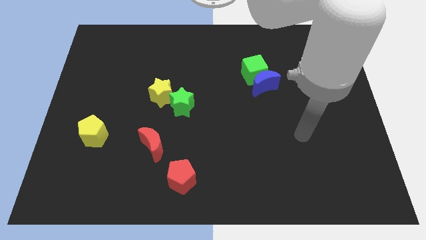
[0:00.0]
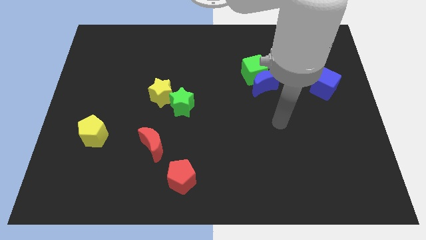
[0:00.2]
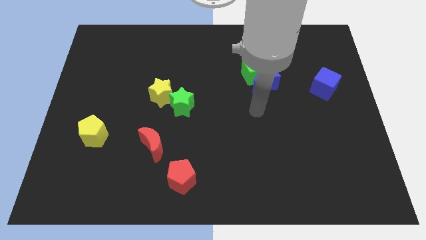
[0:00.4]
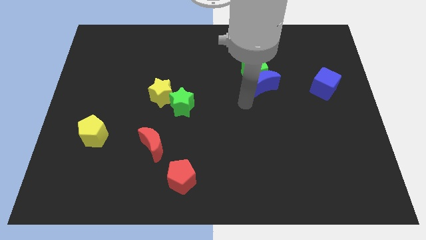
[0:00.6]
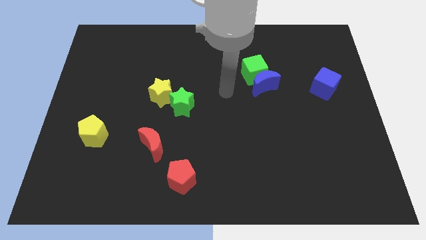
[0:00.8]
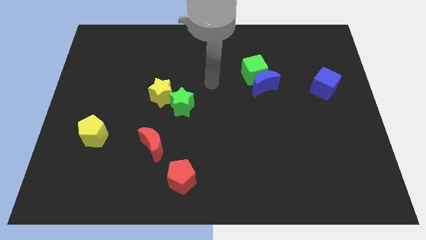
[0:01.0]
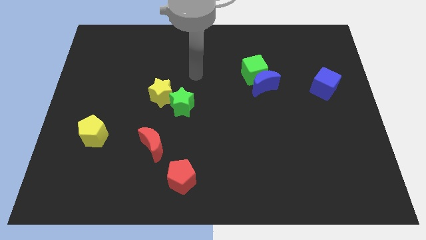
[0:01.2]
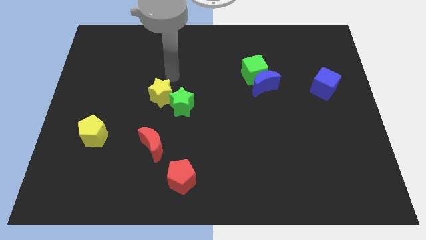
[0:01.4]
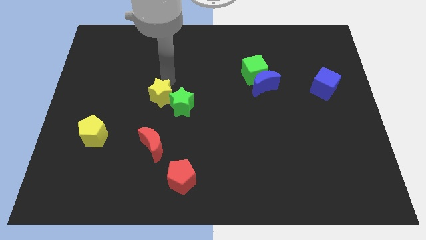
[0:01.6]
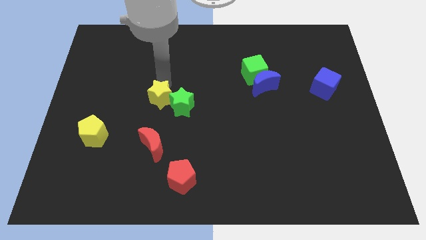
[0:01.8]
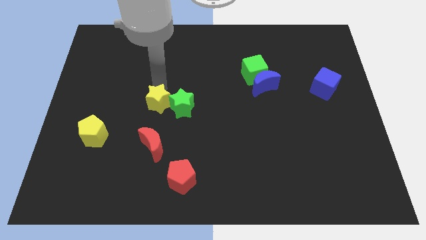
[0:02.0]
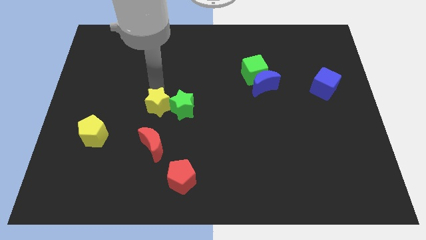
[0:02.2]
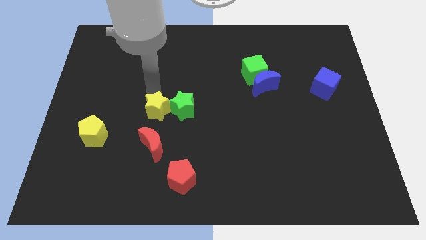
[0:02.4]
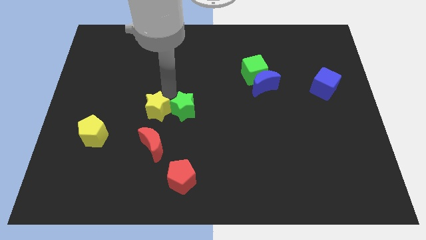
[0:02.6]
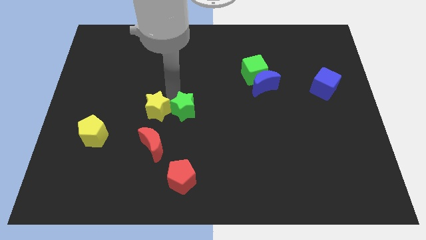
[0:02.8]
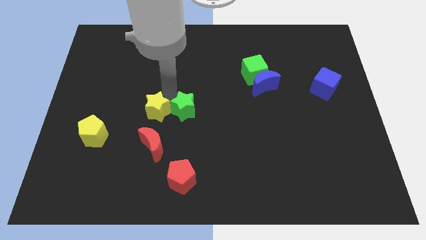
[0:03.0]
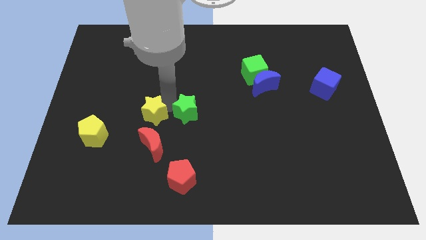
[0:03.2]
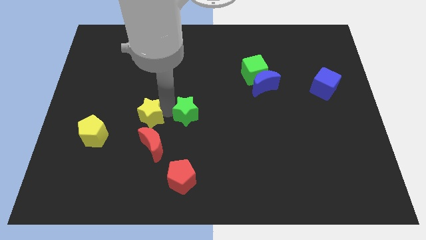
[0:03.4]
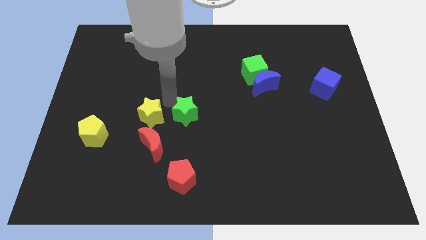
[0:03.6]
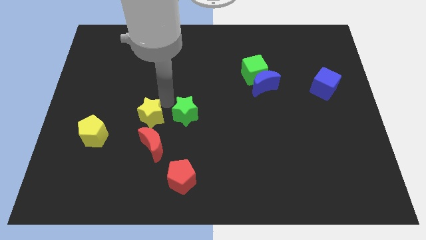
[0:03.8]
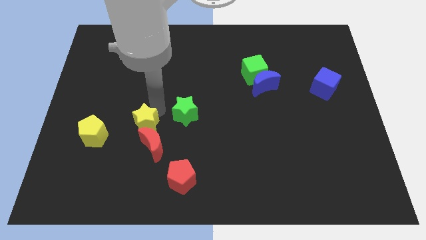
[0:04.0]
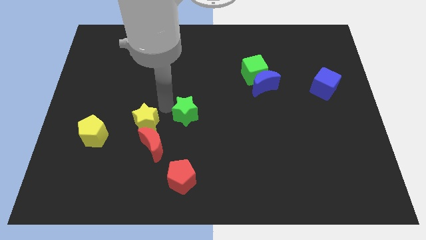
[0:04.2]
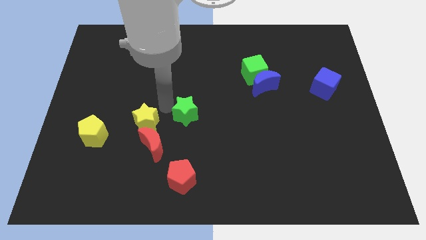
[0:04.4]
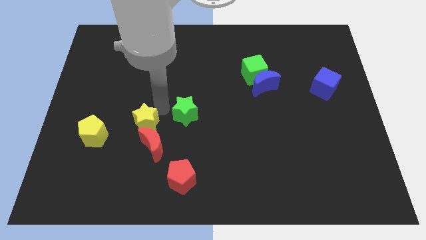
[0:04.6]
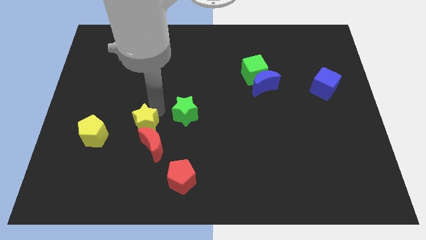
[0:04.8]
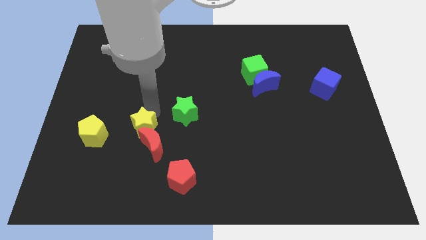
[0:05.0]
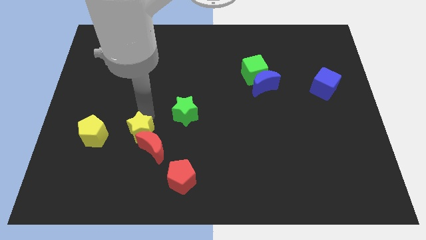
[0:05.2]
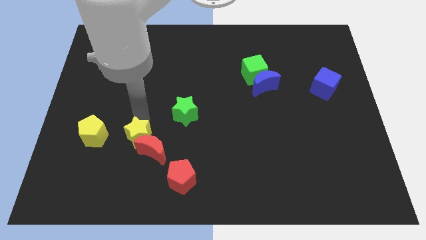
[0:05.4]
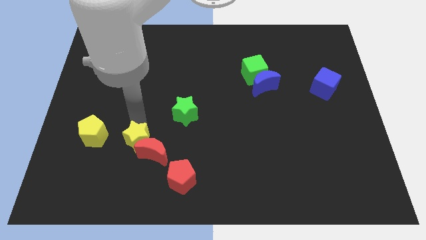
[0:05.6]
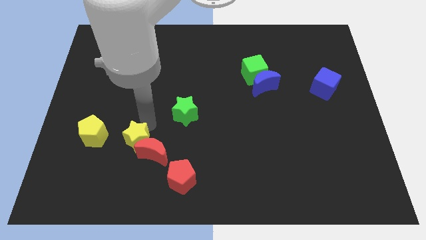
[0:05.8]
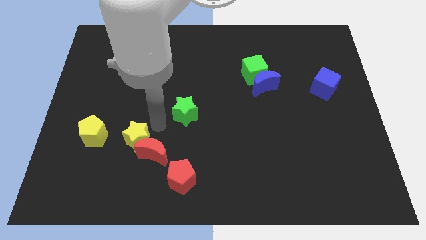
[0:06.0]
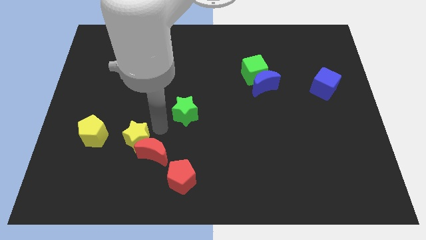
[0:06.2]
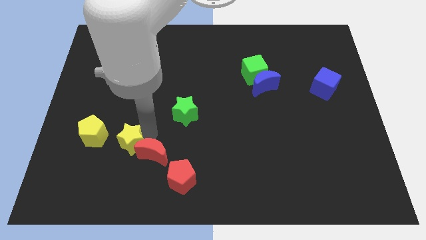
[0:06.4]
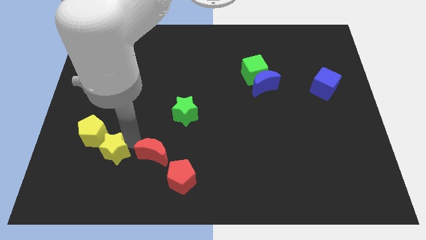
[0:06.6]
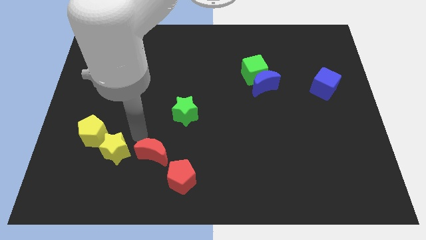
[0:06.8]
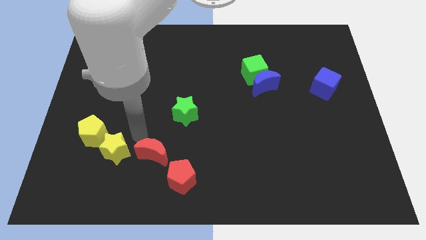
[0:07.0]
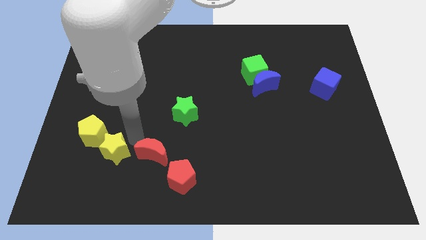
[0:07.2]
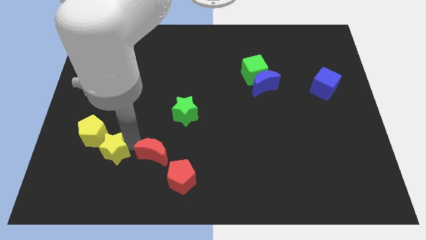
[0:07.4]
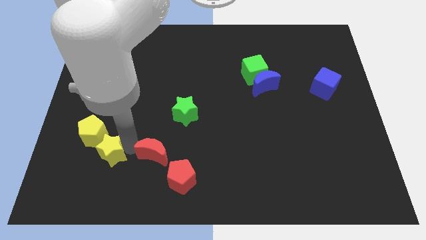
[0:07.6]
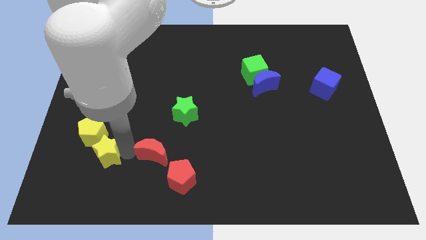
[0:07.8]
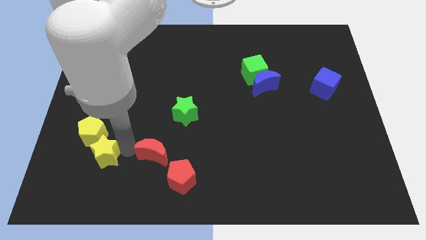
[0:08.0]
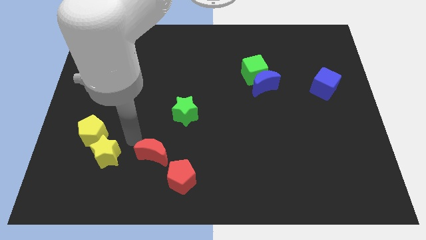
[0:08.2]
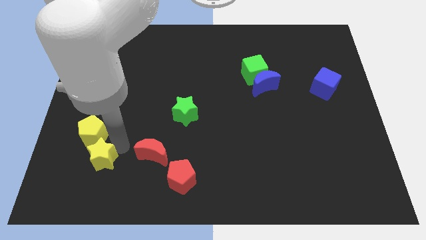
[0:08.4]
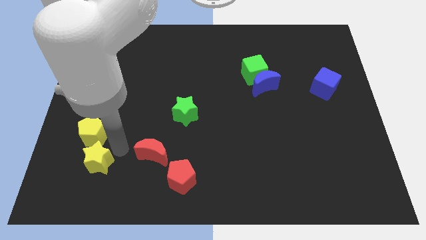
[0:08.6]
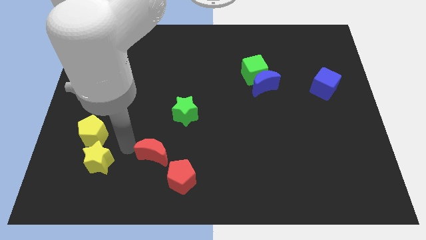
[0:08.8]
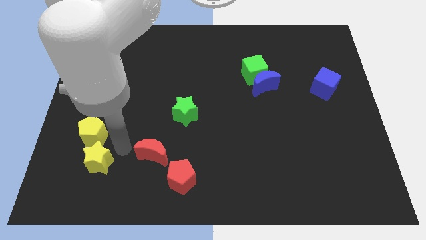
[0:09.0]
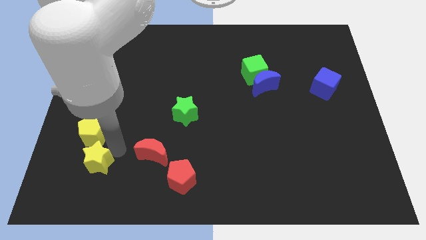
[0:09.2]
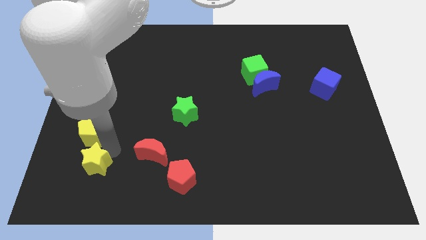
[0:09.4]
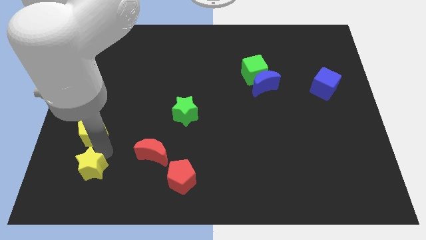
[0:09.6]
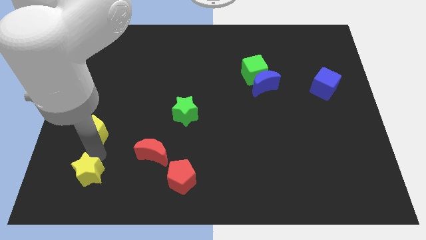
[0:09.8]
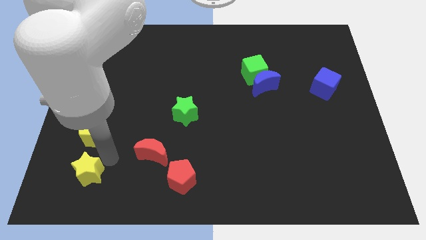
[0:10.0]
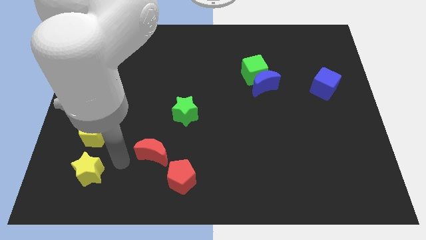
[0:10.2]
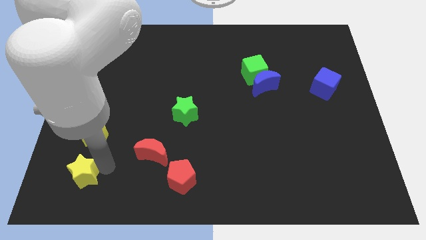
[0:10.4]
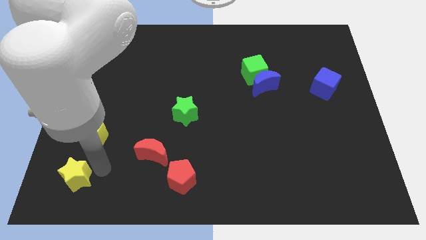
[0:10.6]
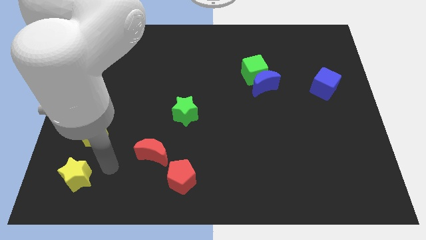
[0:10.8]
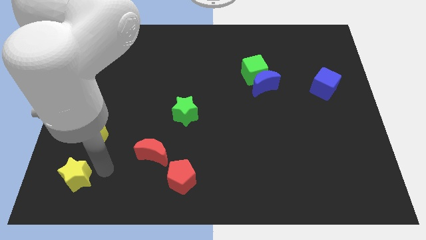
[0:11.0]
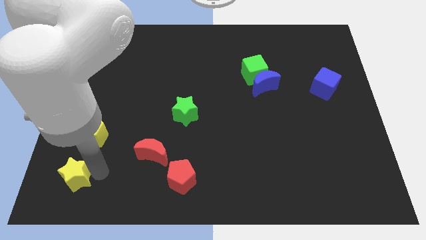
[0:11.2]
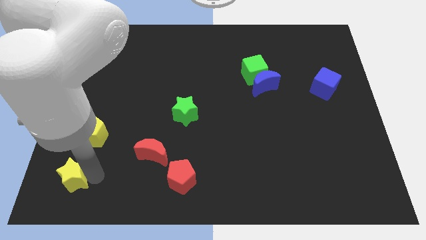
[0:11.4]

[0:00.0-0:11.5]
move the yellow star to the bottom left corner

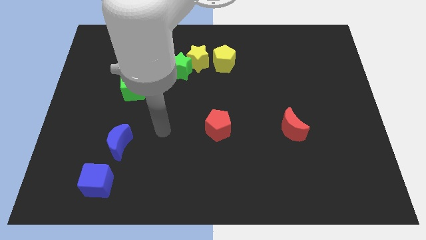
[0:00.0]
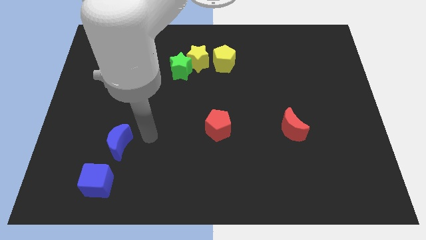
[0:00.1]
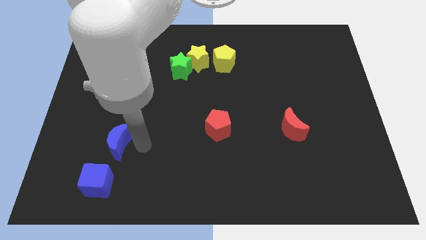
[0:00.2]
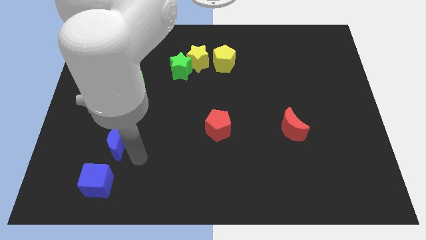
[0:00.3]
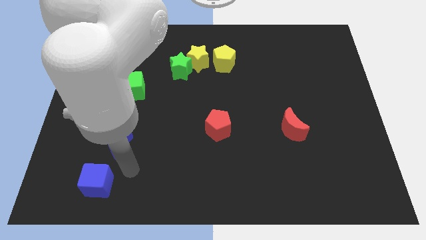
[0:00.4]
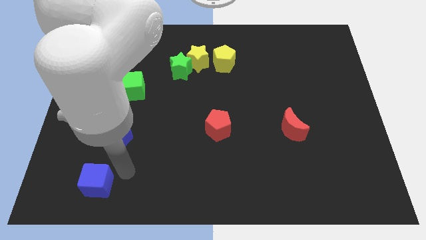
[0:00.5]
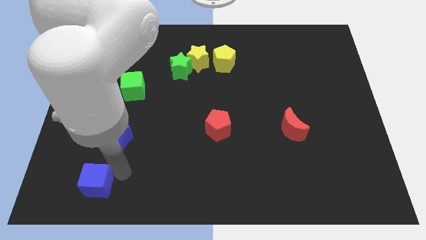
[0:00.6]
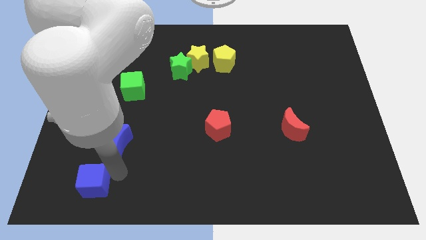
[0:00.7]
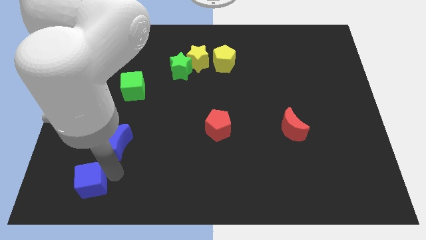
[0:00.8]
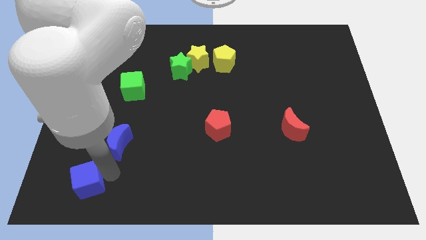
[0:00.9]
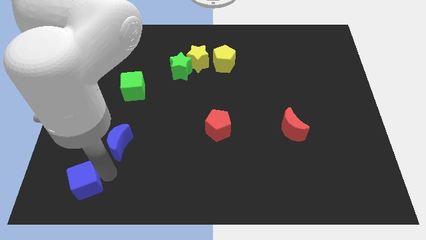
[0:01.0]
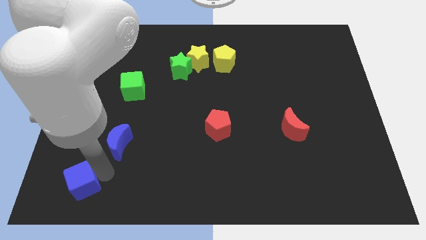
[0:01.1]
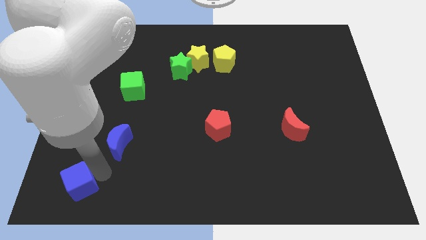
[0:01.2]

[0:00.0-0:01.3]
slide the blue cube to the lower left corner

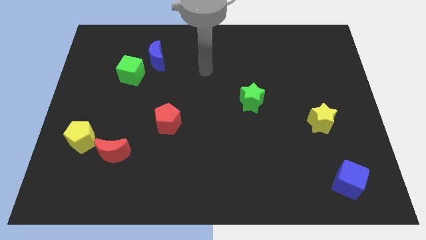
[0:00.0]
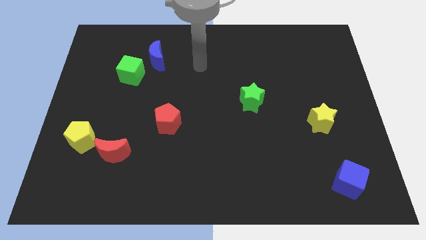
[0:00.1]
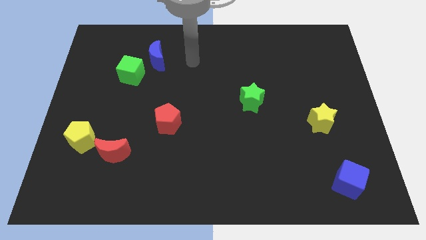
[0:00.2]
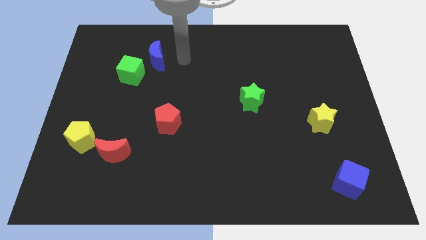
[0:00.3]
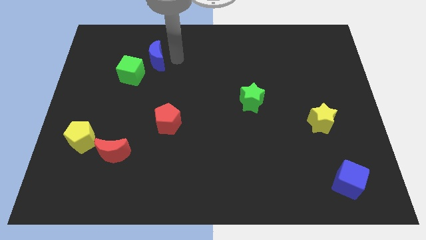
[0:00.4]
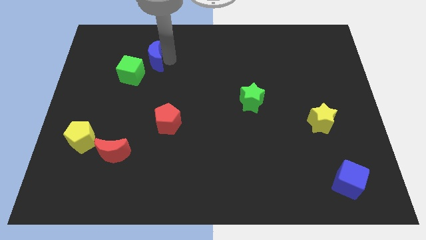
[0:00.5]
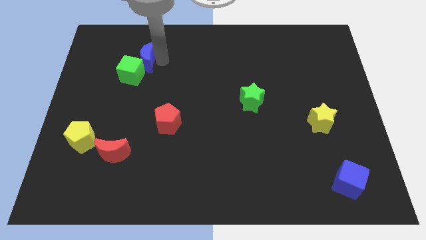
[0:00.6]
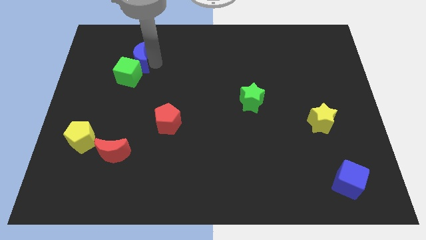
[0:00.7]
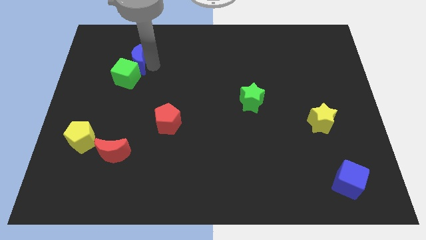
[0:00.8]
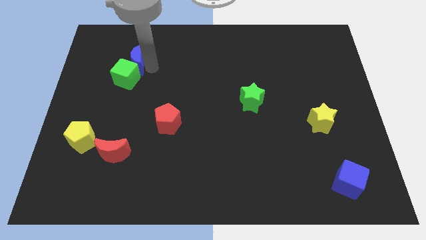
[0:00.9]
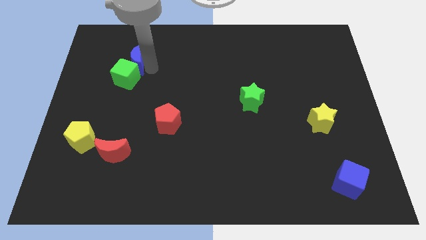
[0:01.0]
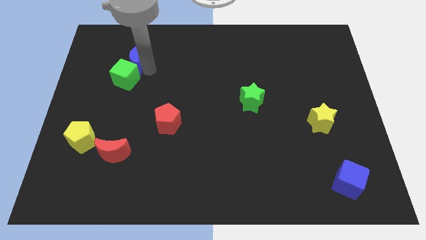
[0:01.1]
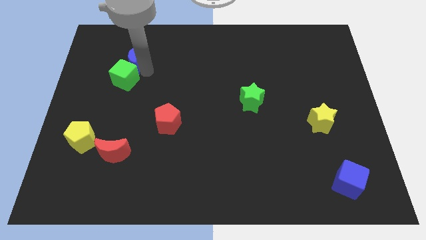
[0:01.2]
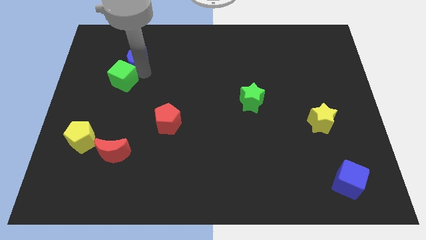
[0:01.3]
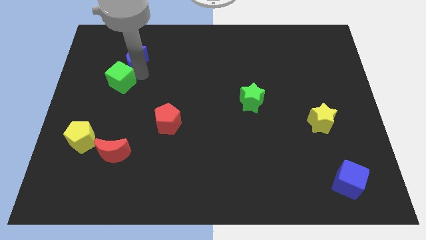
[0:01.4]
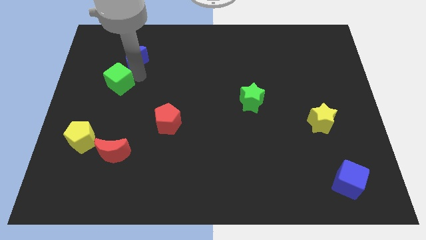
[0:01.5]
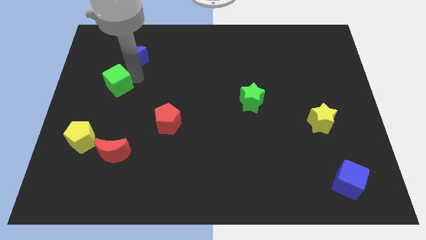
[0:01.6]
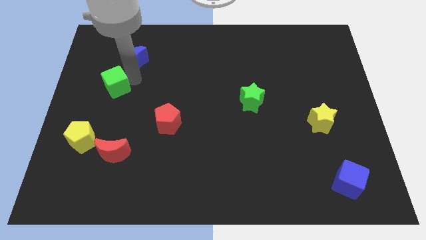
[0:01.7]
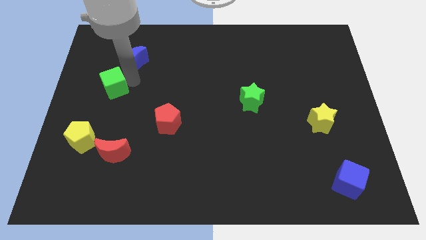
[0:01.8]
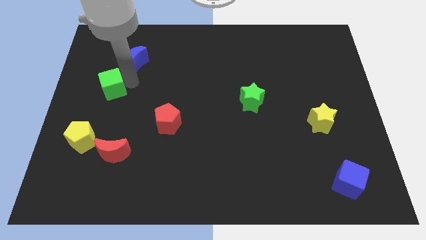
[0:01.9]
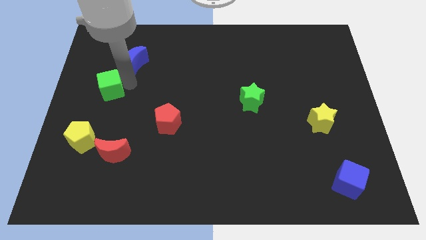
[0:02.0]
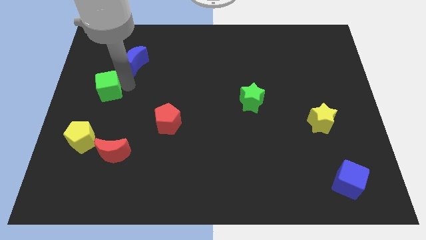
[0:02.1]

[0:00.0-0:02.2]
slide the green cube to the left side of the board
